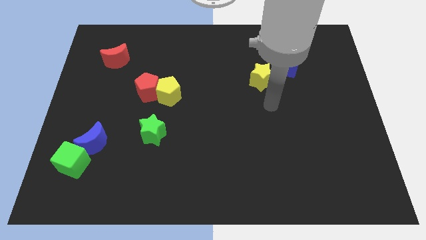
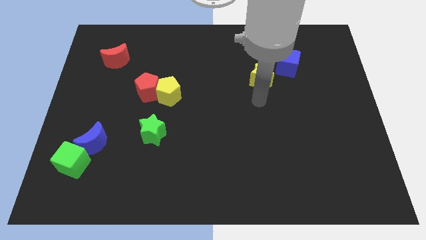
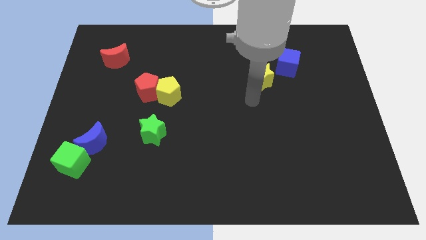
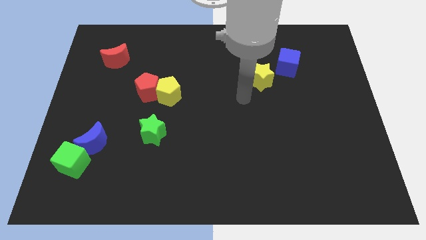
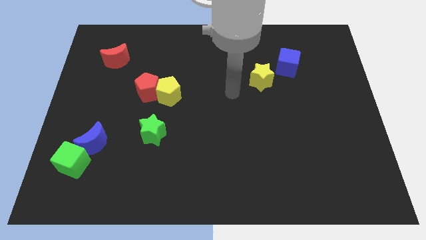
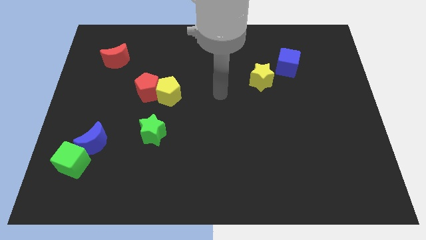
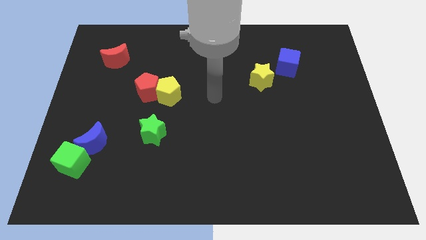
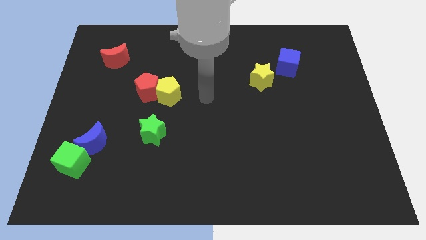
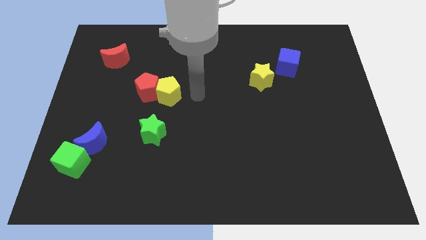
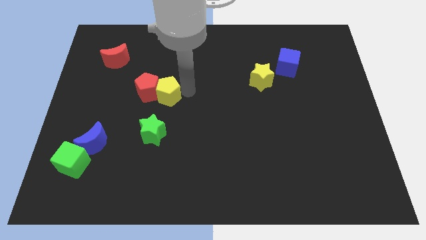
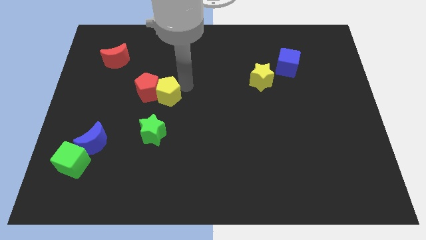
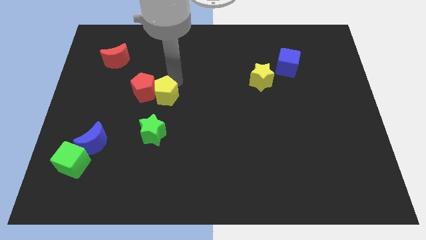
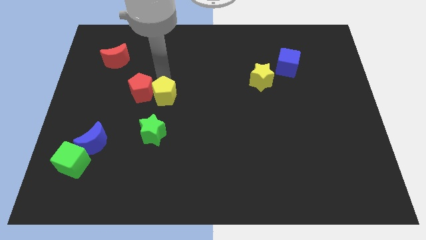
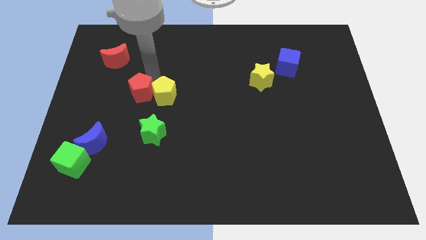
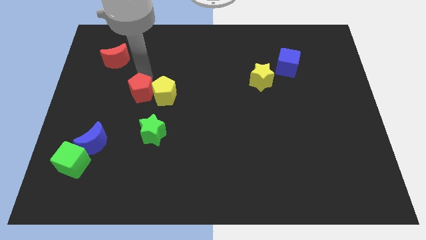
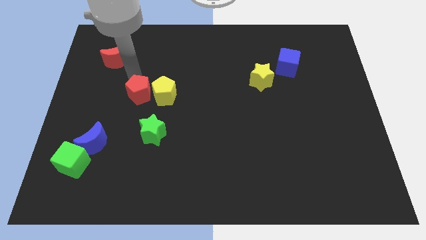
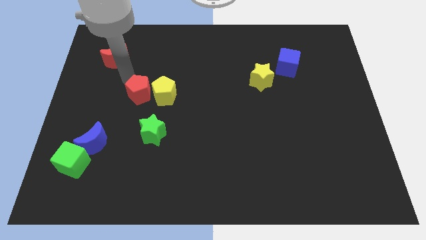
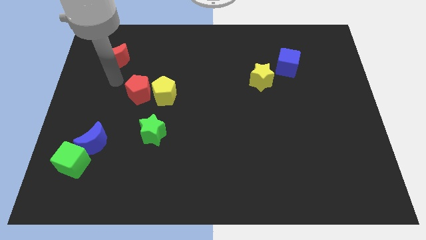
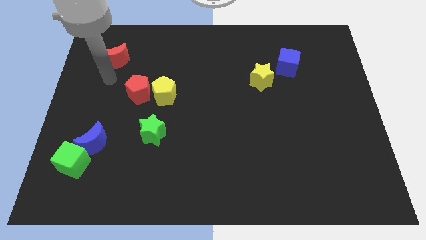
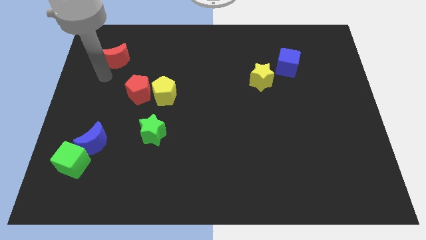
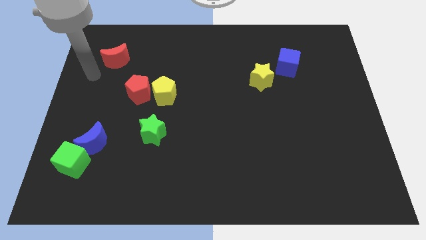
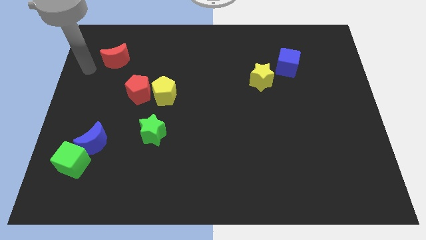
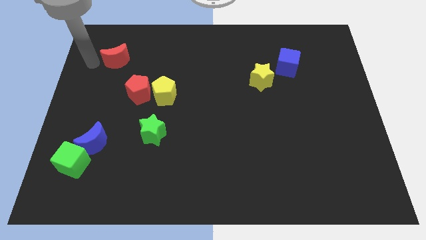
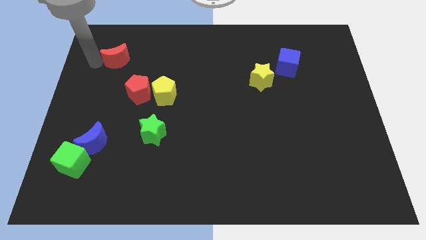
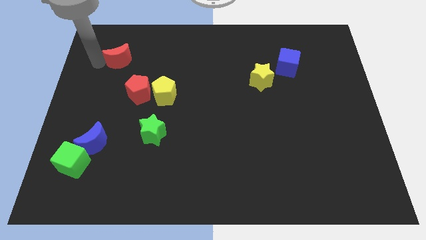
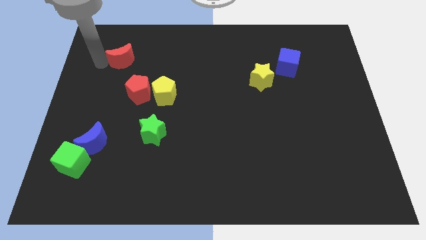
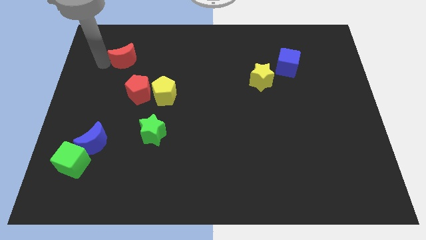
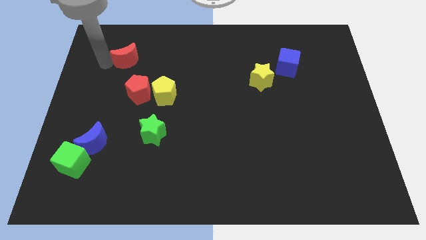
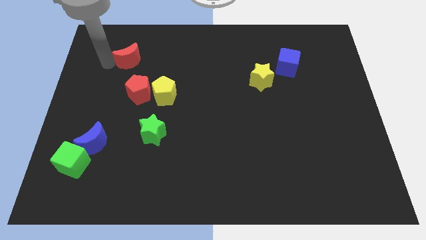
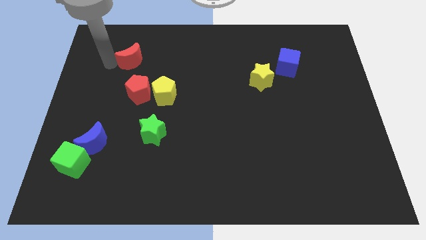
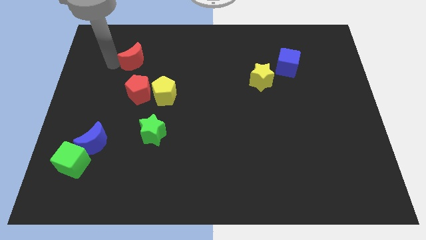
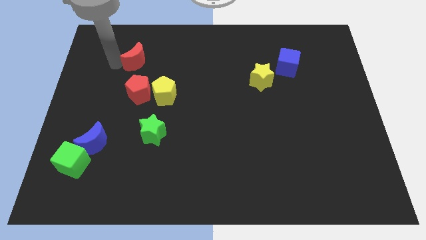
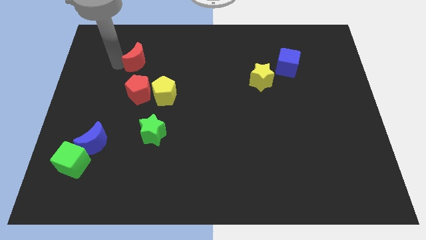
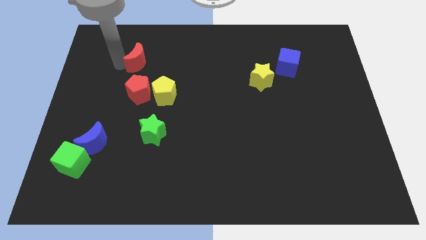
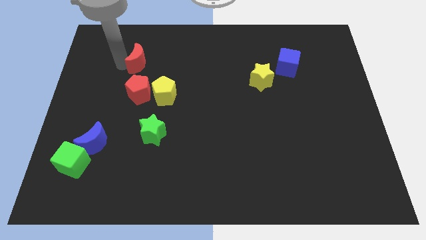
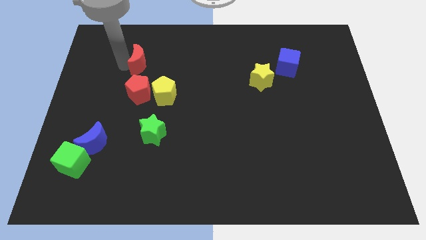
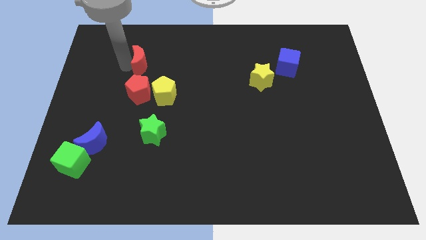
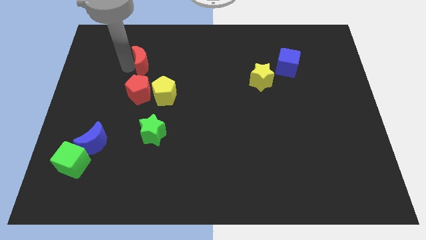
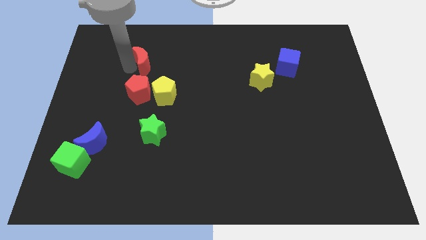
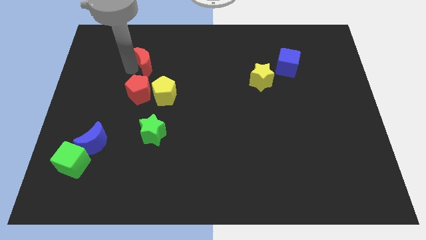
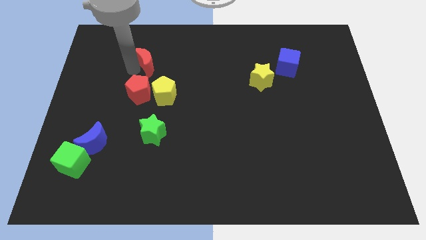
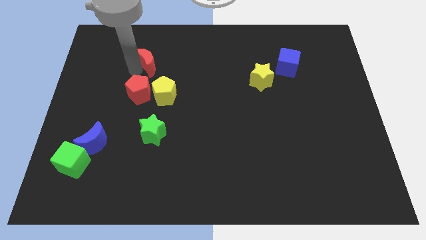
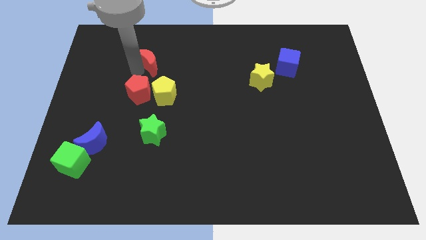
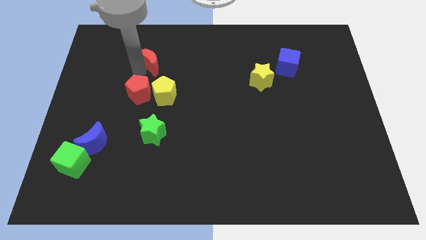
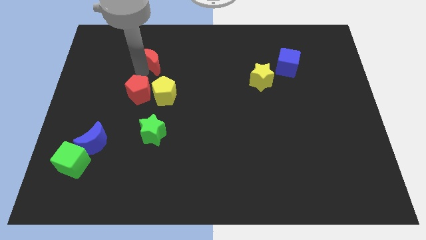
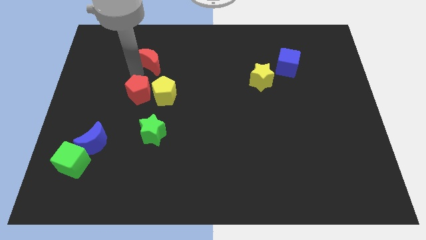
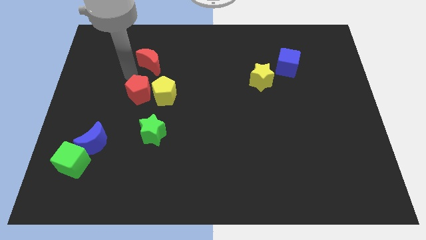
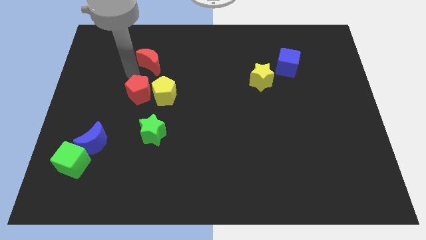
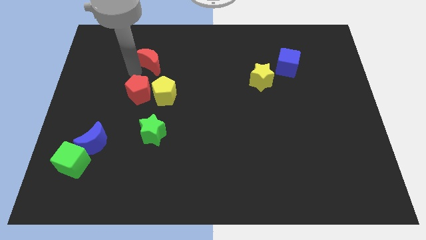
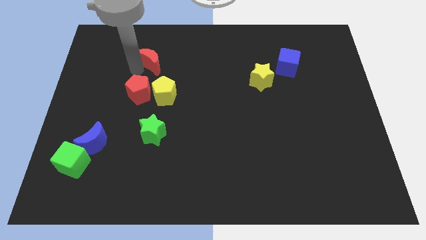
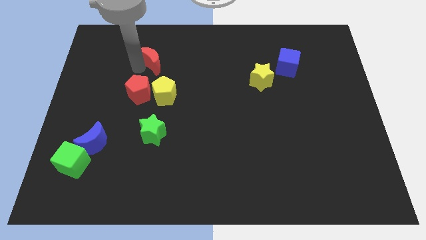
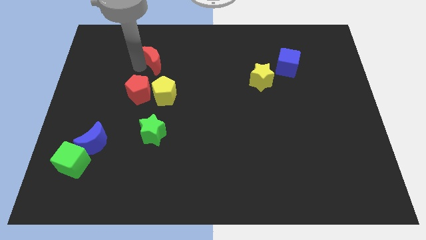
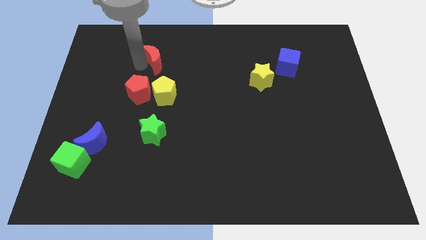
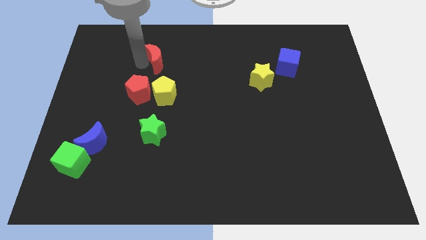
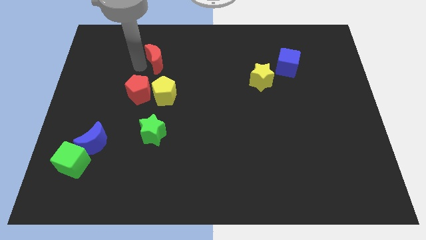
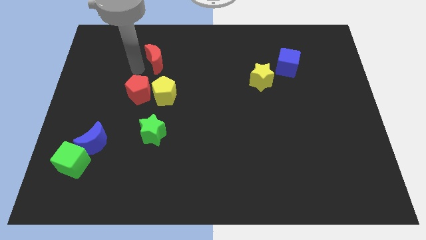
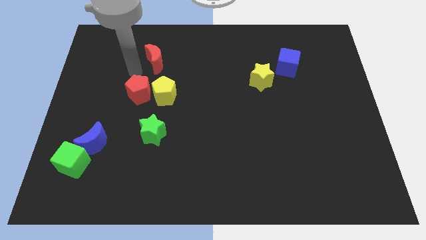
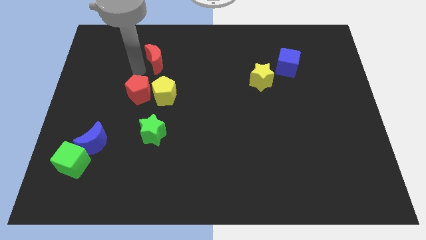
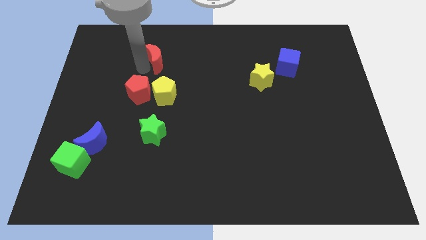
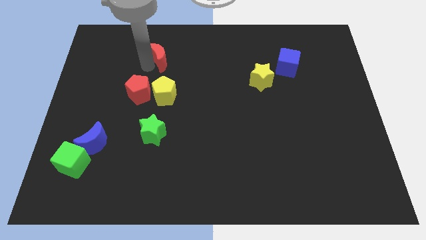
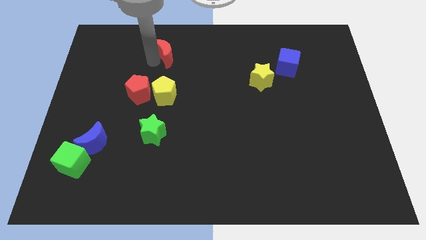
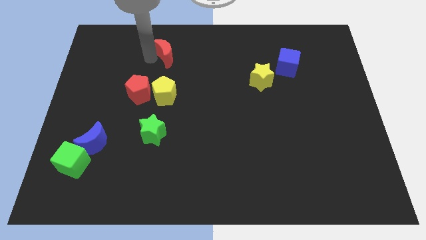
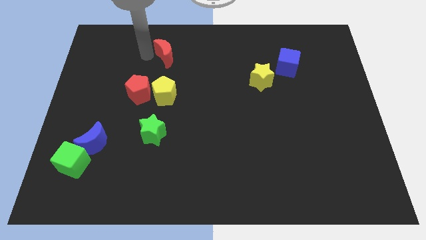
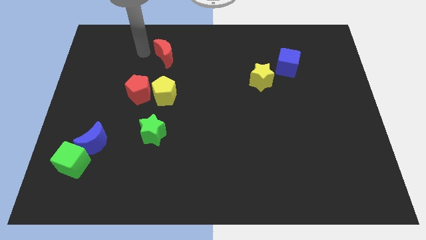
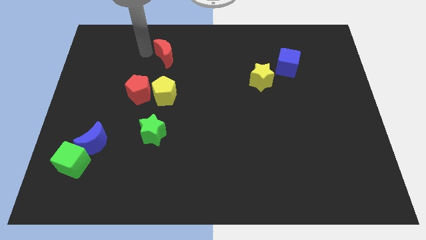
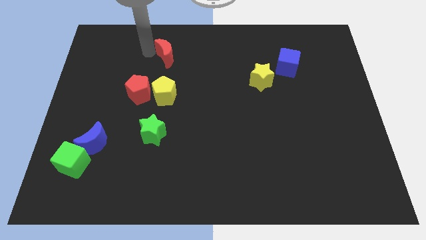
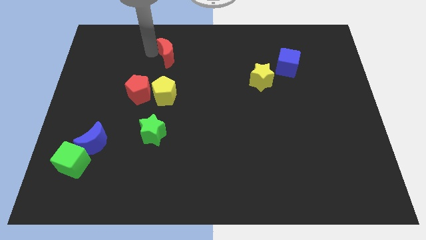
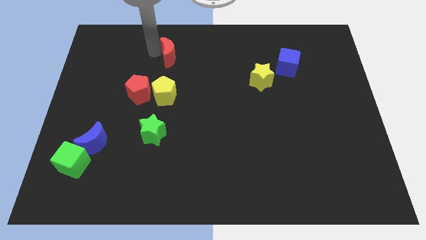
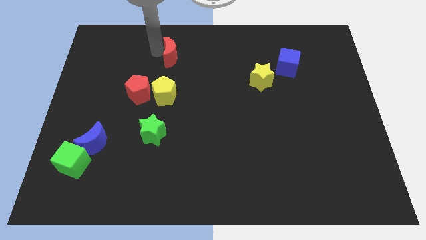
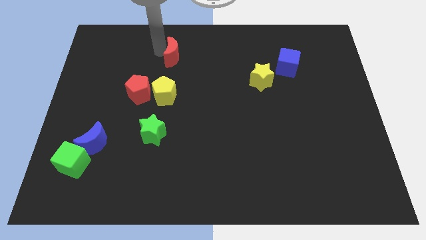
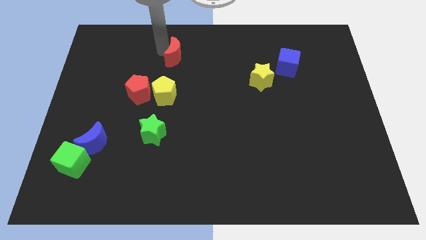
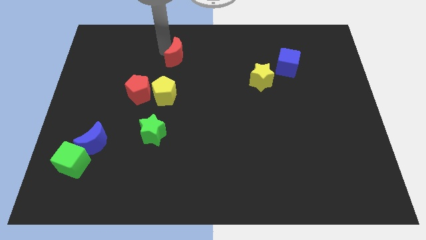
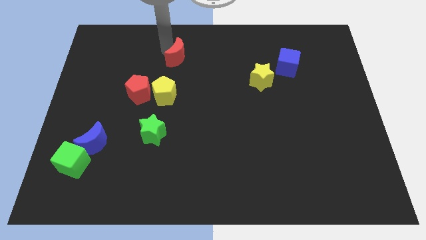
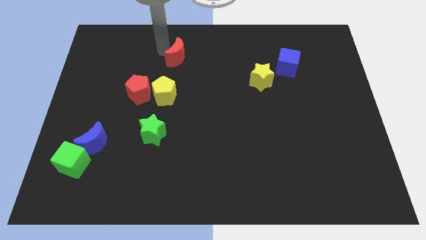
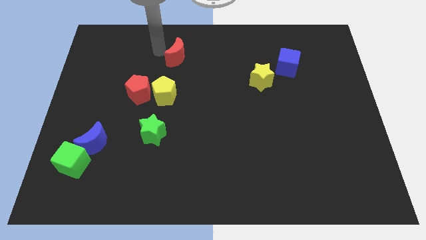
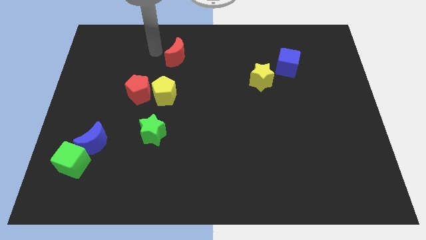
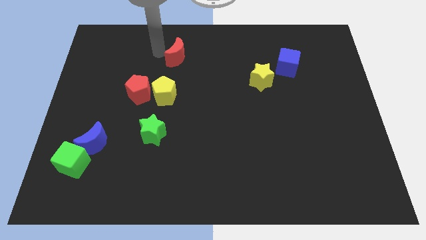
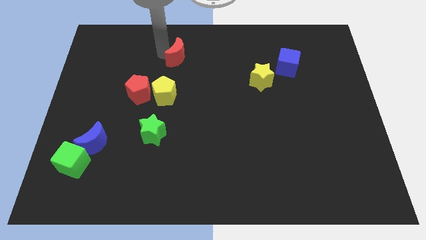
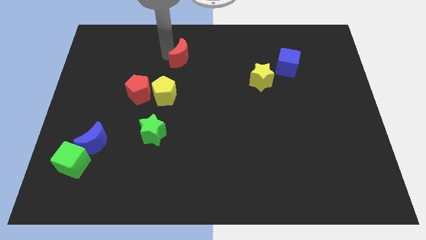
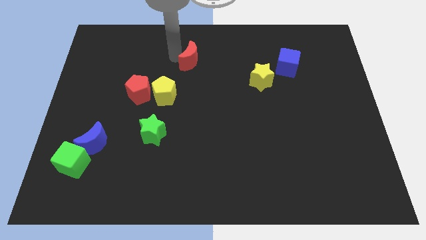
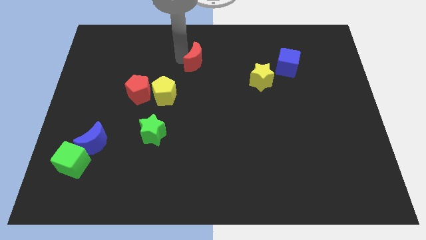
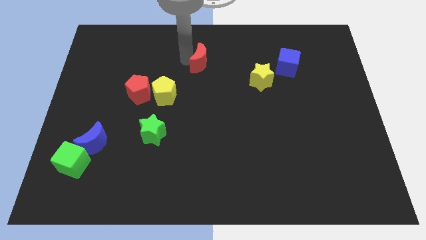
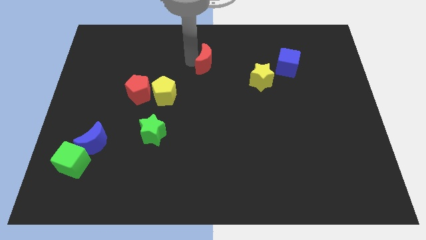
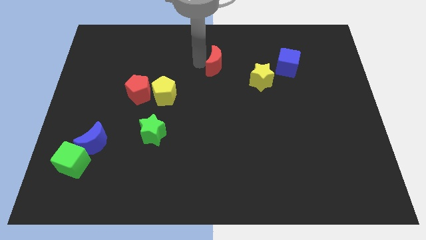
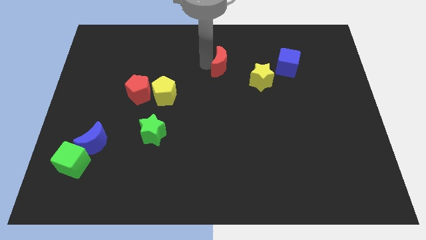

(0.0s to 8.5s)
slide the red moon diagonally up and to the left of the yellow star
